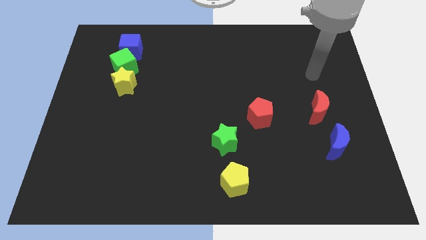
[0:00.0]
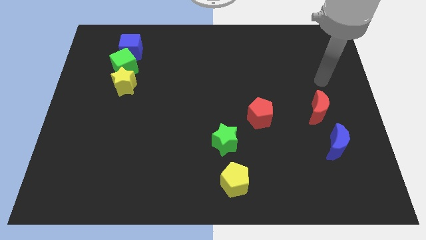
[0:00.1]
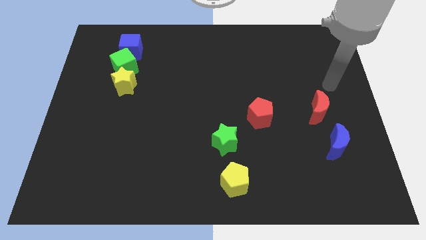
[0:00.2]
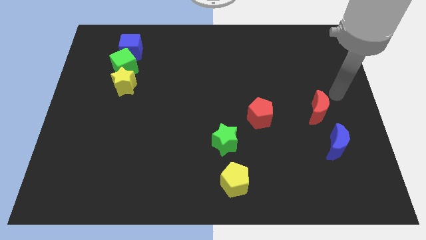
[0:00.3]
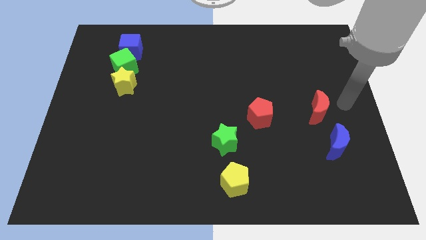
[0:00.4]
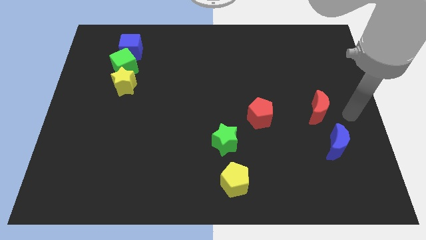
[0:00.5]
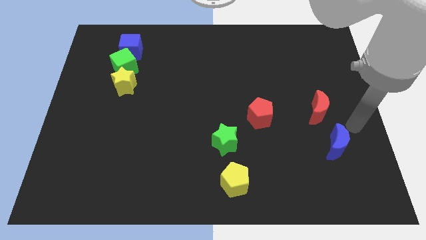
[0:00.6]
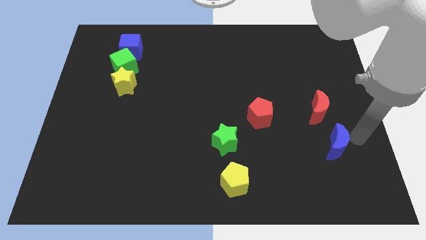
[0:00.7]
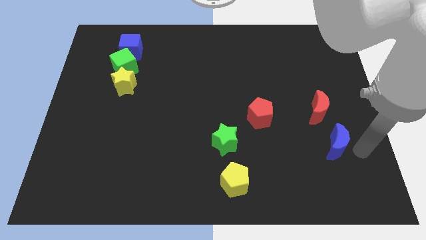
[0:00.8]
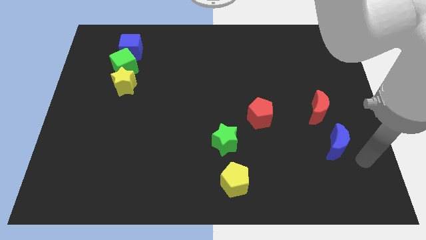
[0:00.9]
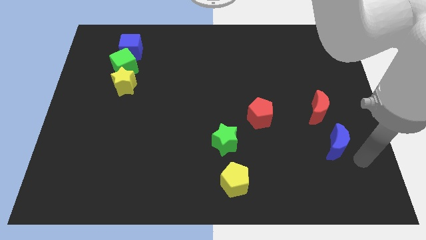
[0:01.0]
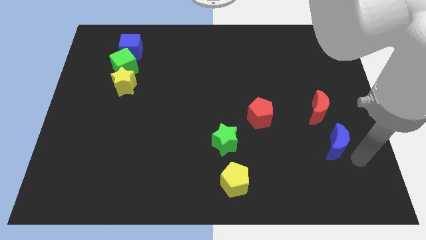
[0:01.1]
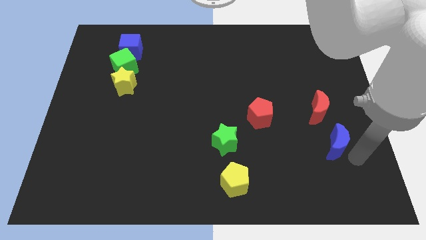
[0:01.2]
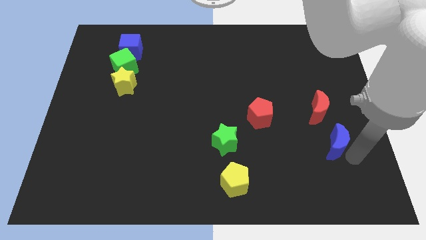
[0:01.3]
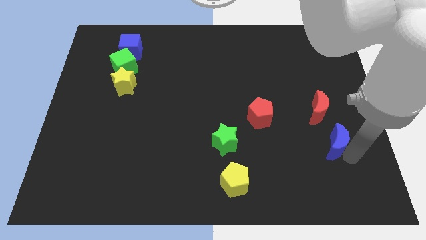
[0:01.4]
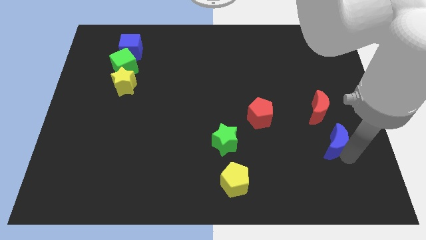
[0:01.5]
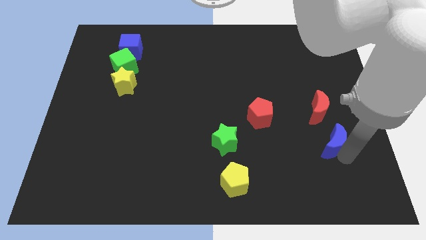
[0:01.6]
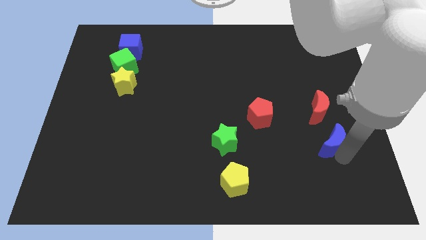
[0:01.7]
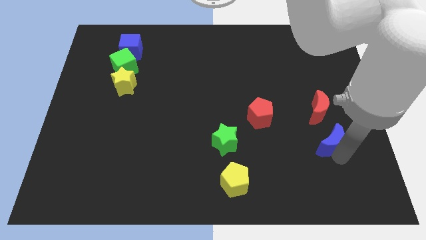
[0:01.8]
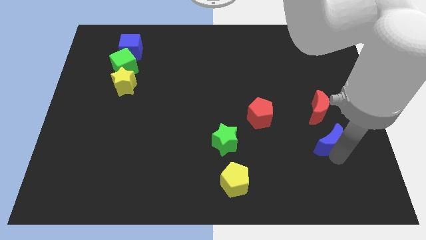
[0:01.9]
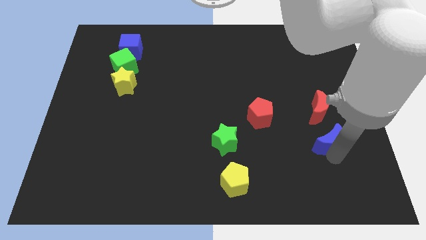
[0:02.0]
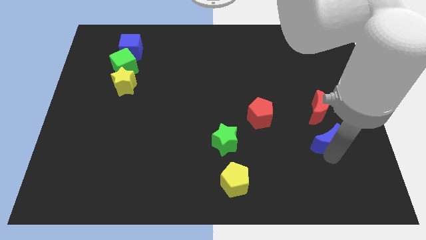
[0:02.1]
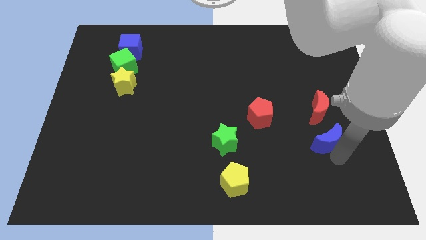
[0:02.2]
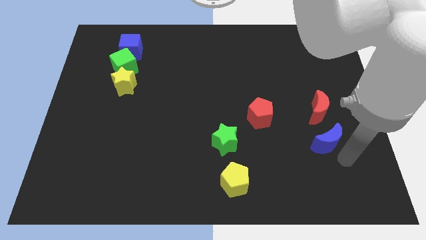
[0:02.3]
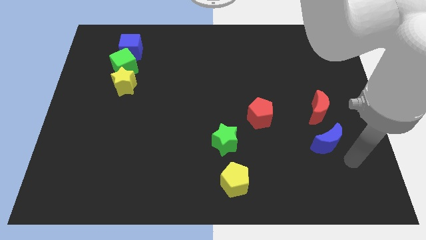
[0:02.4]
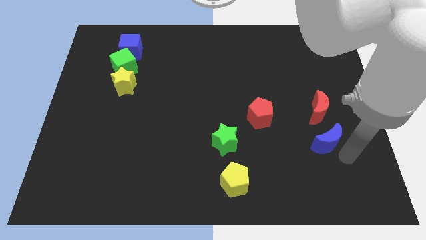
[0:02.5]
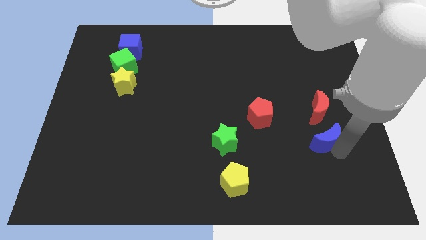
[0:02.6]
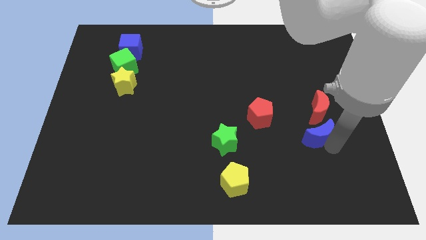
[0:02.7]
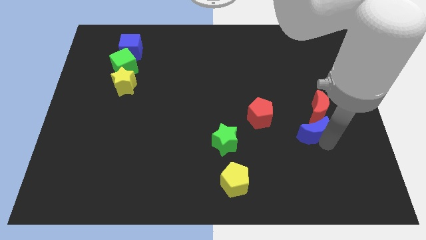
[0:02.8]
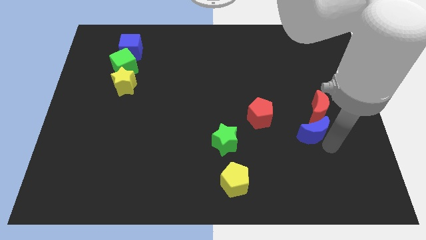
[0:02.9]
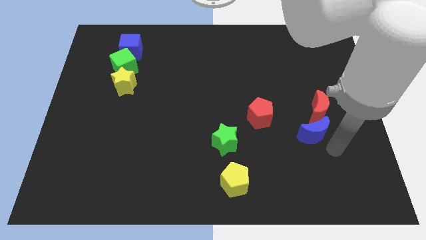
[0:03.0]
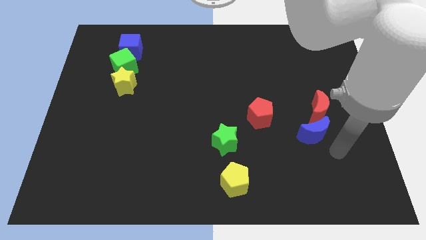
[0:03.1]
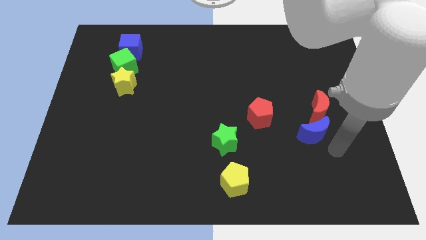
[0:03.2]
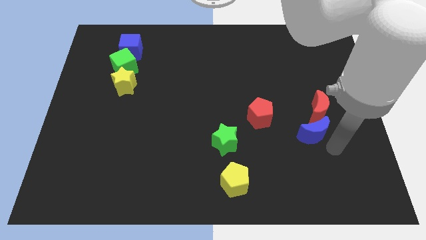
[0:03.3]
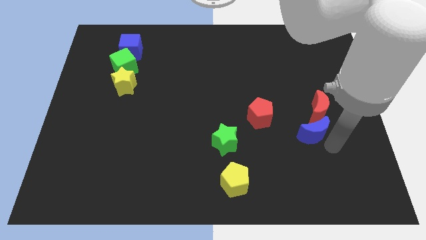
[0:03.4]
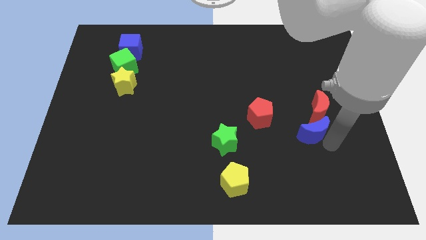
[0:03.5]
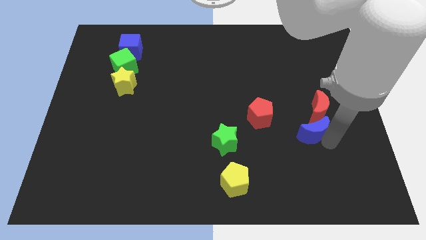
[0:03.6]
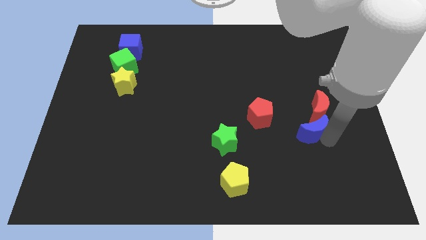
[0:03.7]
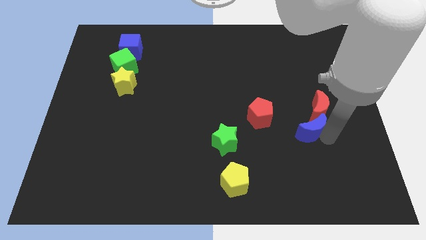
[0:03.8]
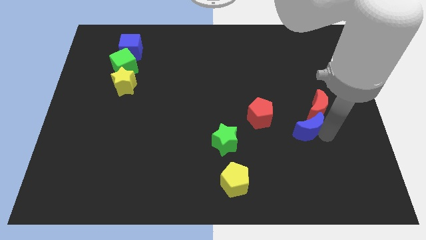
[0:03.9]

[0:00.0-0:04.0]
slide the blue moon up and left diagonally a little

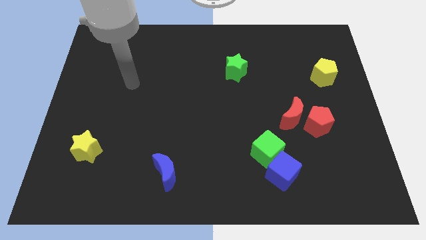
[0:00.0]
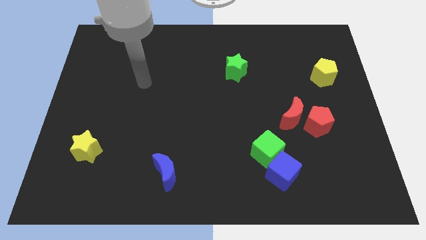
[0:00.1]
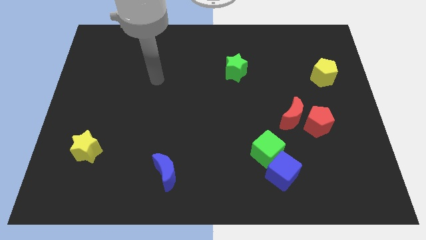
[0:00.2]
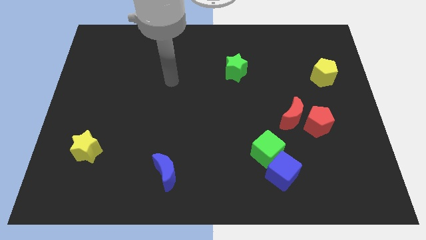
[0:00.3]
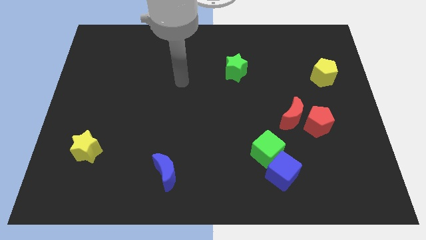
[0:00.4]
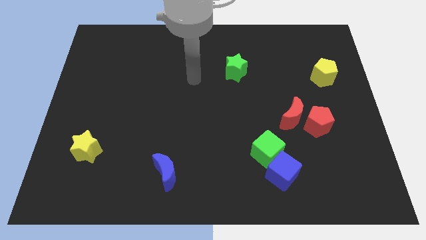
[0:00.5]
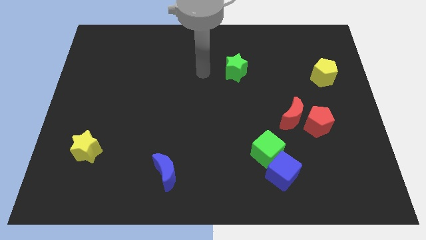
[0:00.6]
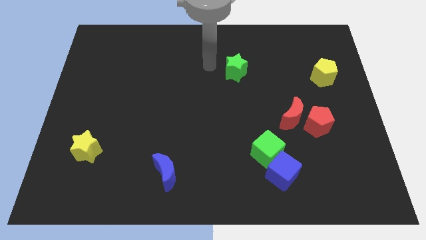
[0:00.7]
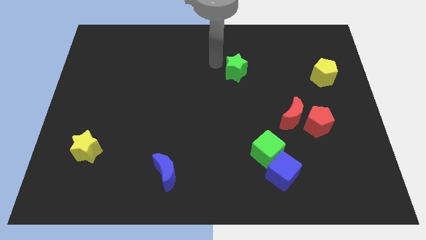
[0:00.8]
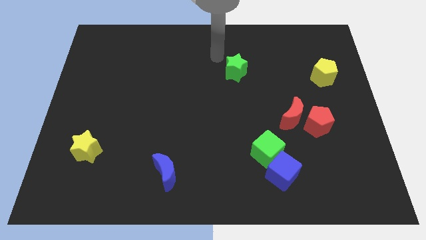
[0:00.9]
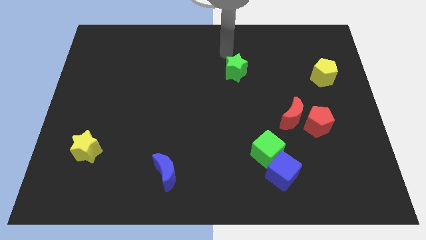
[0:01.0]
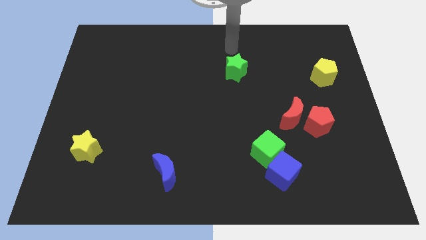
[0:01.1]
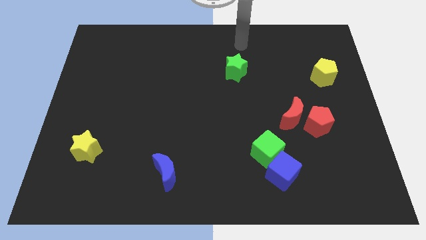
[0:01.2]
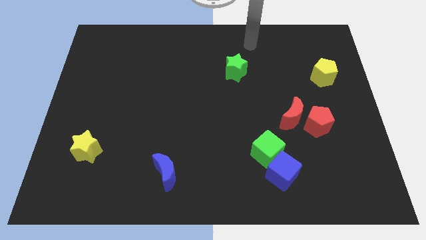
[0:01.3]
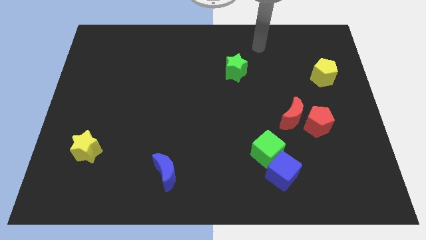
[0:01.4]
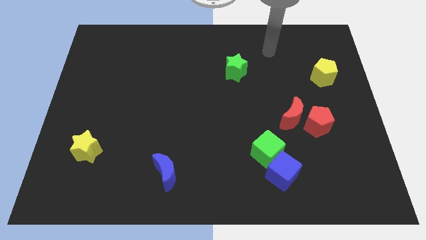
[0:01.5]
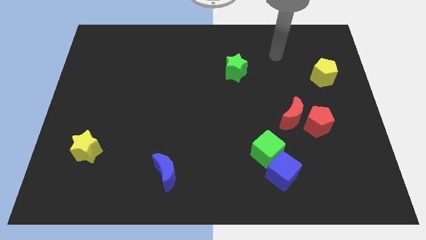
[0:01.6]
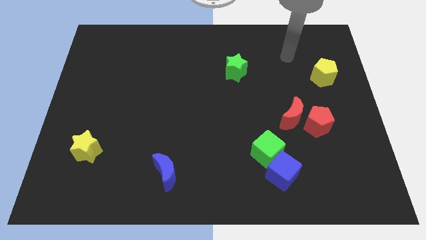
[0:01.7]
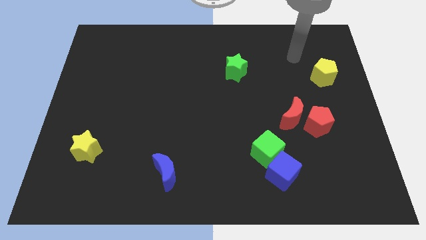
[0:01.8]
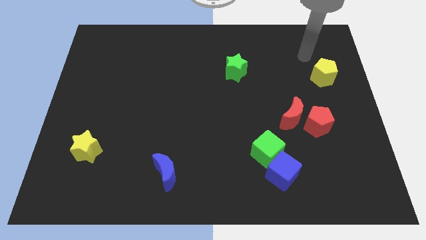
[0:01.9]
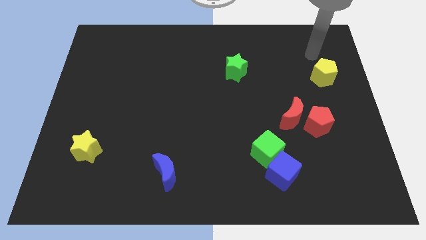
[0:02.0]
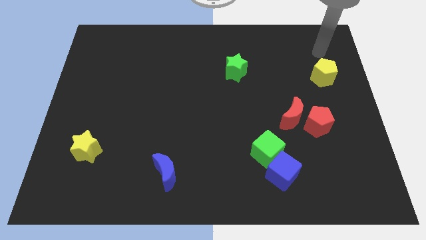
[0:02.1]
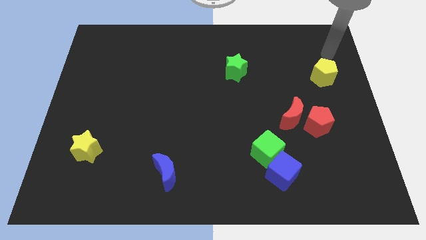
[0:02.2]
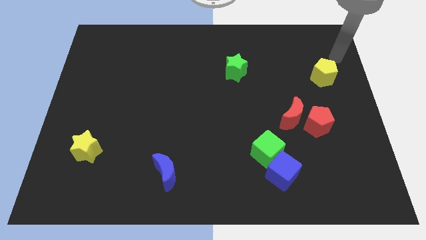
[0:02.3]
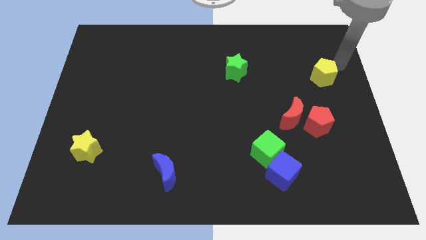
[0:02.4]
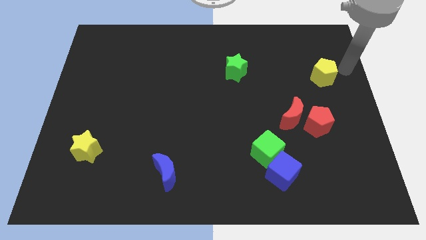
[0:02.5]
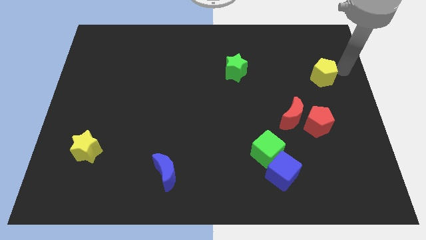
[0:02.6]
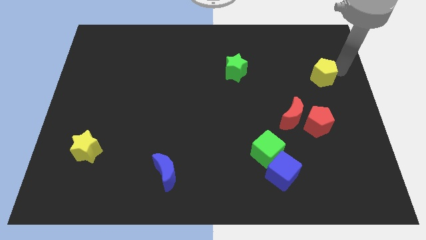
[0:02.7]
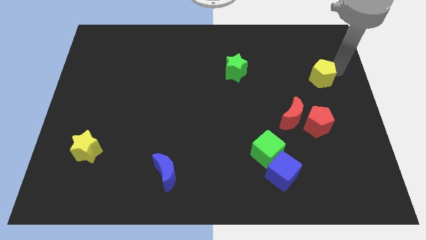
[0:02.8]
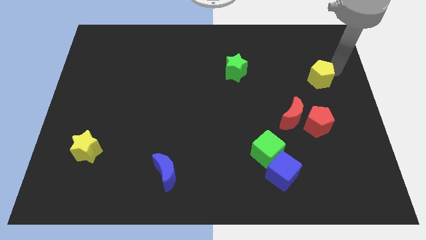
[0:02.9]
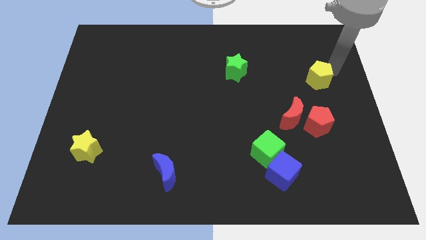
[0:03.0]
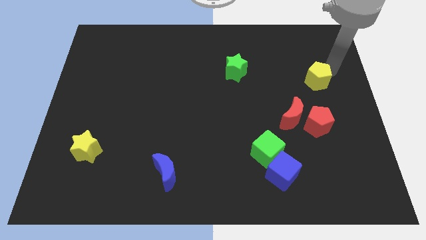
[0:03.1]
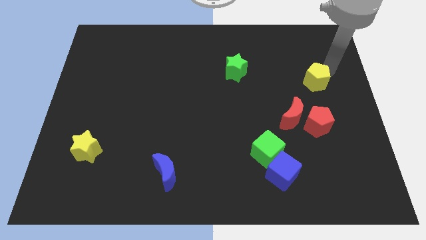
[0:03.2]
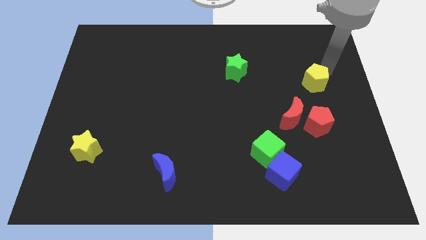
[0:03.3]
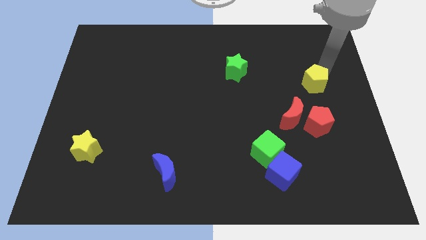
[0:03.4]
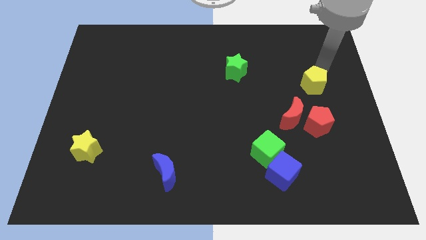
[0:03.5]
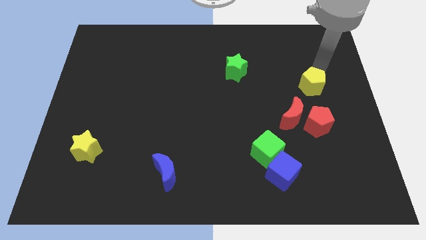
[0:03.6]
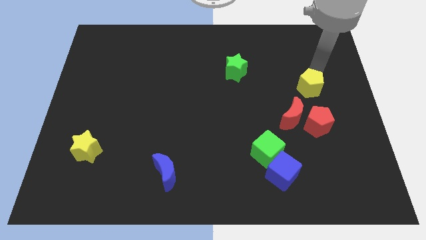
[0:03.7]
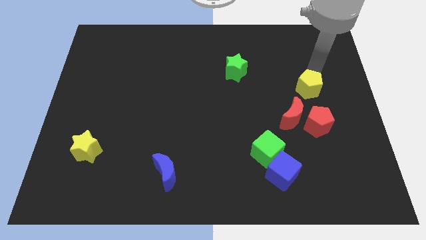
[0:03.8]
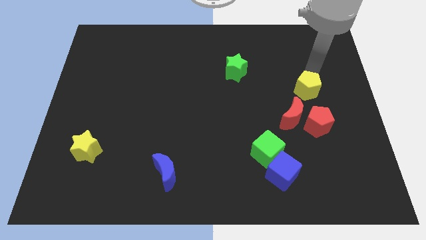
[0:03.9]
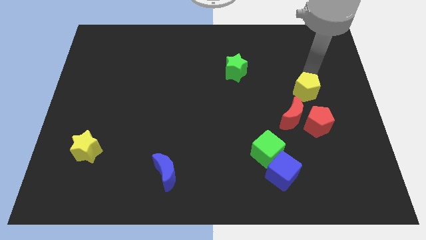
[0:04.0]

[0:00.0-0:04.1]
slightly push the yellow pentagon diagonally down and to the left

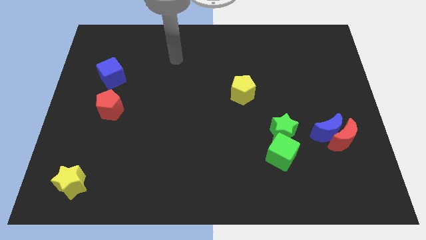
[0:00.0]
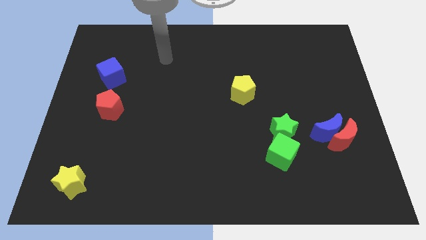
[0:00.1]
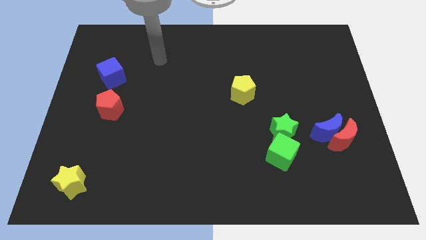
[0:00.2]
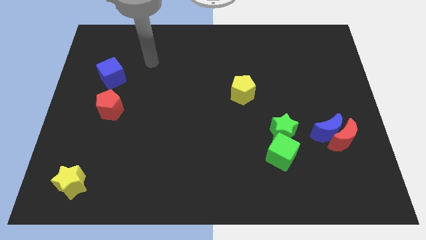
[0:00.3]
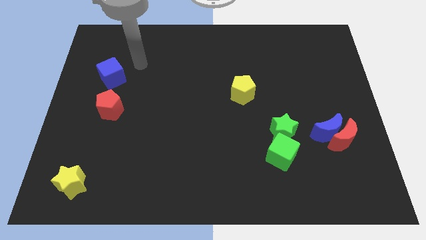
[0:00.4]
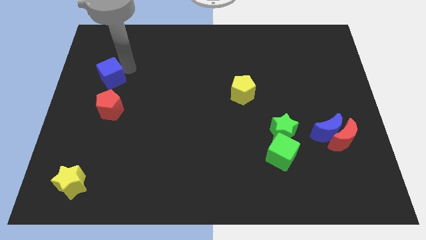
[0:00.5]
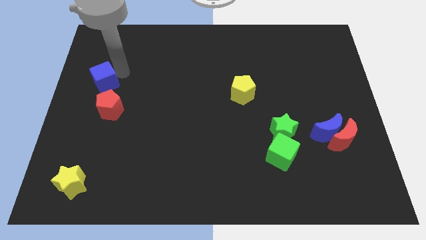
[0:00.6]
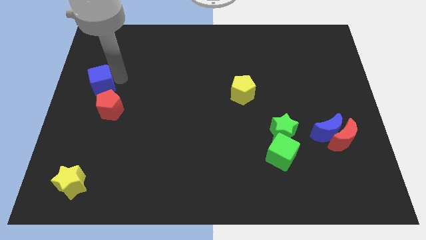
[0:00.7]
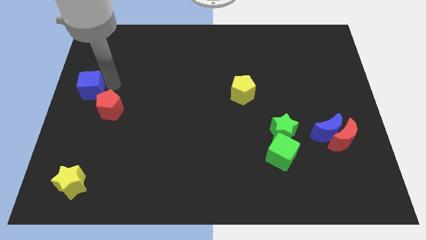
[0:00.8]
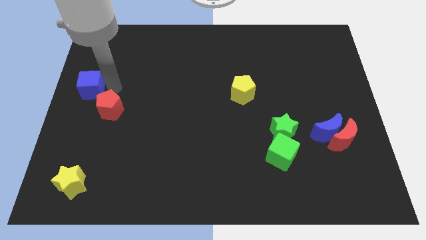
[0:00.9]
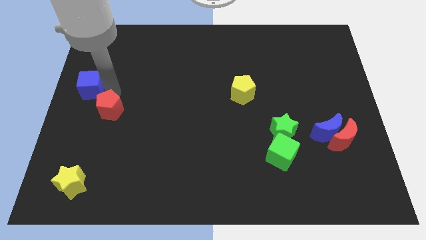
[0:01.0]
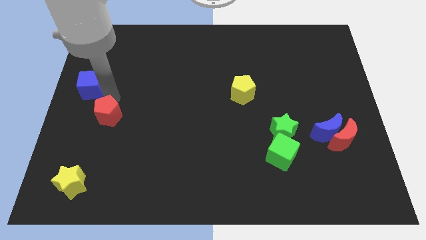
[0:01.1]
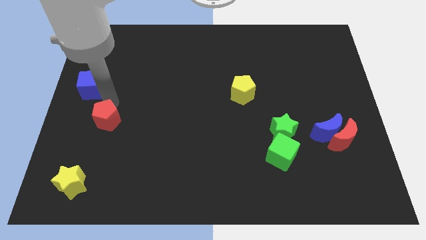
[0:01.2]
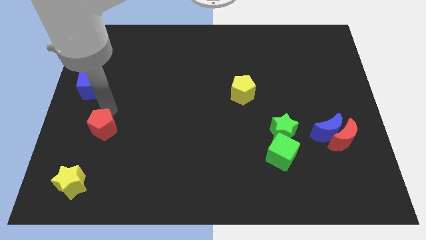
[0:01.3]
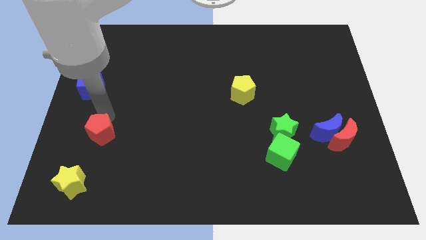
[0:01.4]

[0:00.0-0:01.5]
move the red pentagon downwards slightly
